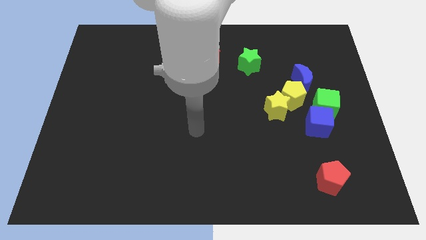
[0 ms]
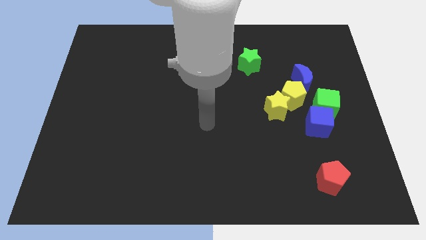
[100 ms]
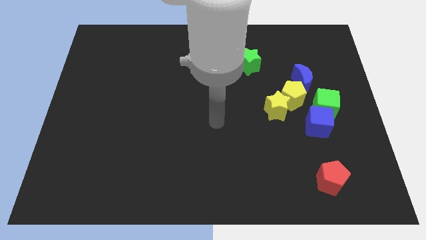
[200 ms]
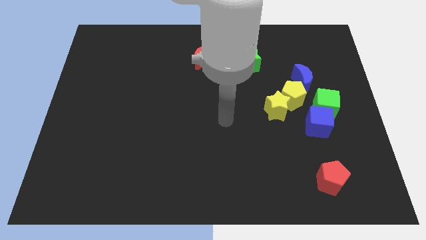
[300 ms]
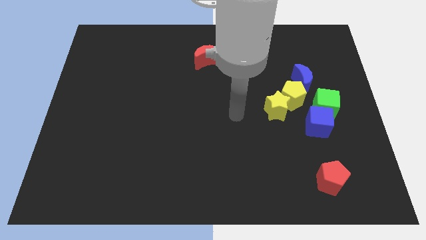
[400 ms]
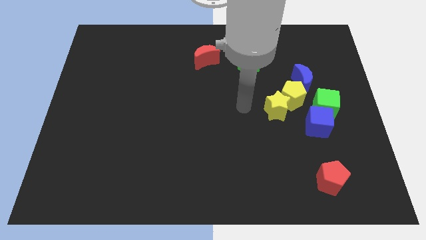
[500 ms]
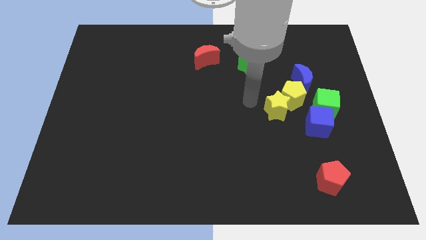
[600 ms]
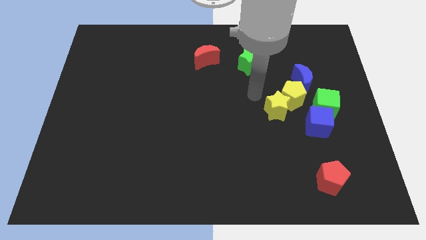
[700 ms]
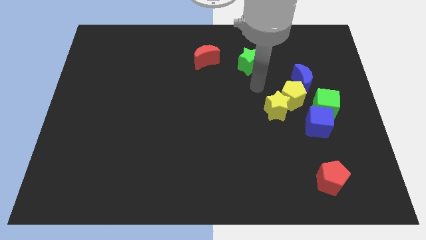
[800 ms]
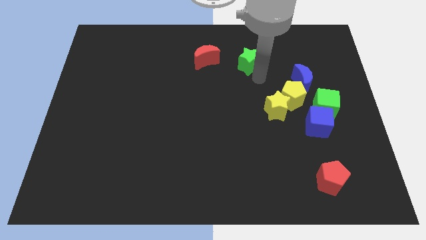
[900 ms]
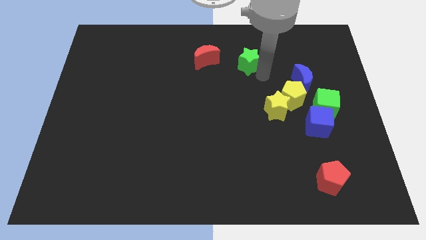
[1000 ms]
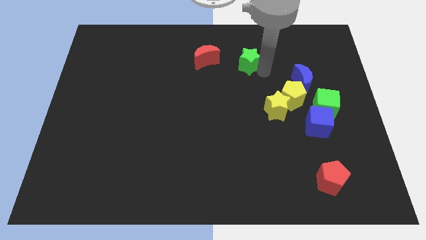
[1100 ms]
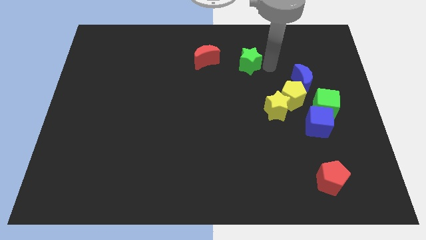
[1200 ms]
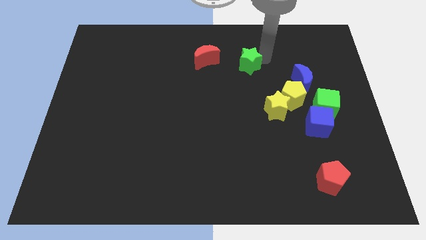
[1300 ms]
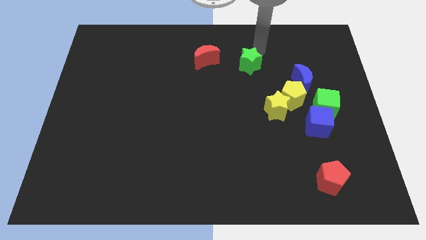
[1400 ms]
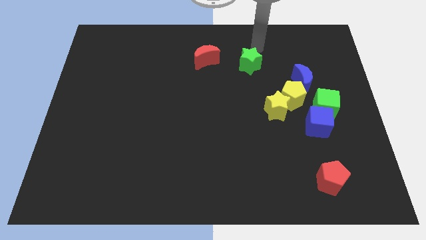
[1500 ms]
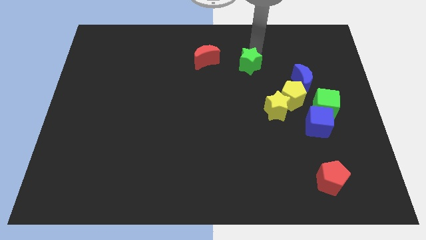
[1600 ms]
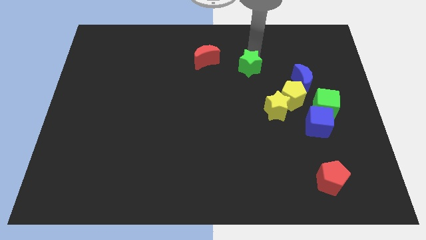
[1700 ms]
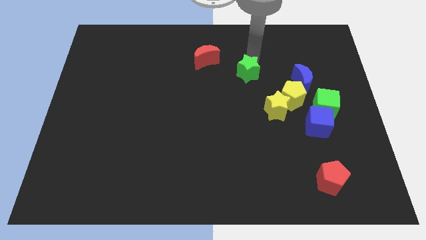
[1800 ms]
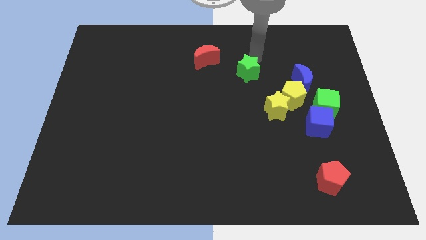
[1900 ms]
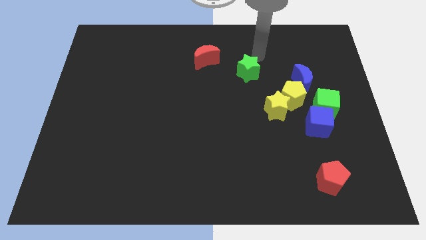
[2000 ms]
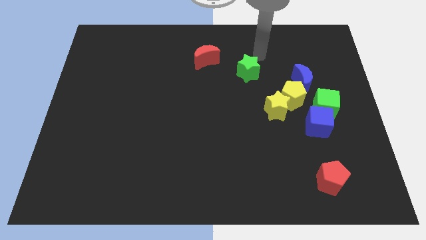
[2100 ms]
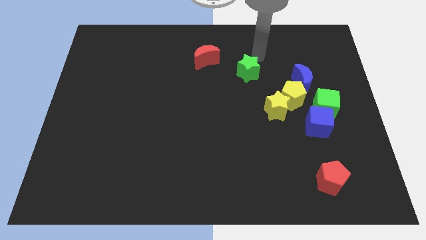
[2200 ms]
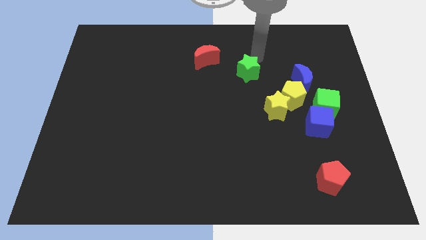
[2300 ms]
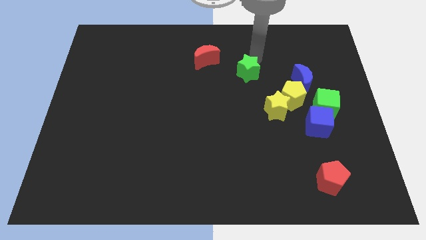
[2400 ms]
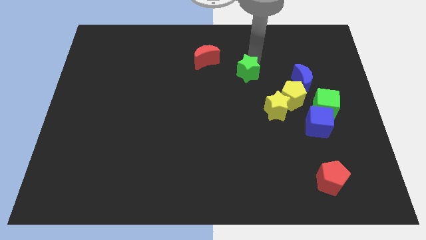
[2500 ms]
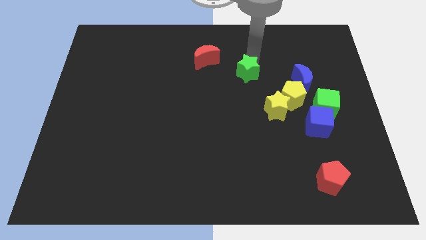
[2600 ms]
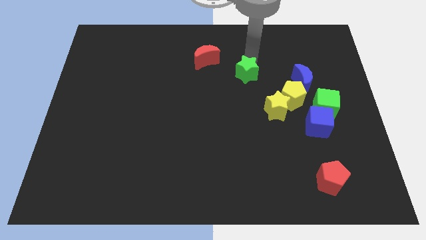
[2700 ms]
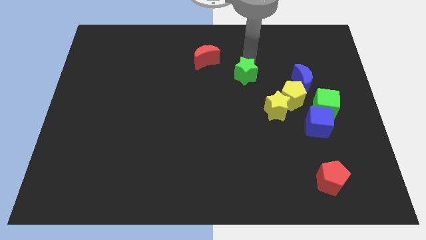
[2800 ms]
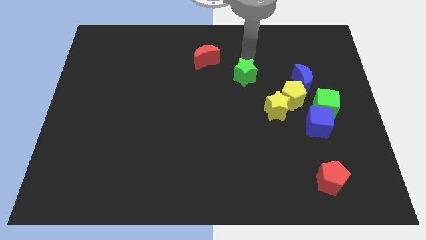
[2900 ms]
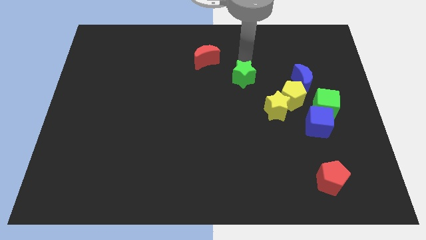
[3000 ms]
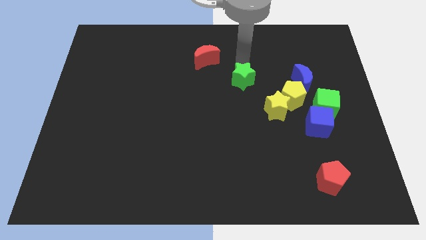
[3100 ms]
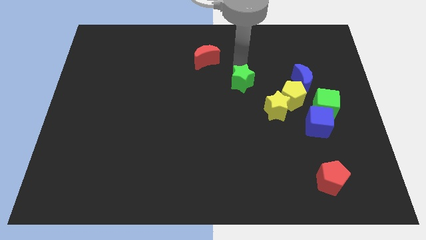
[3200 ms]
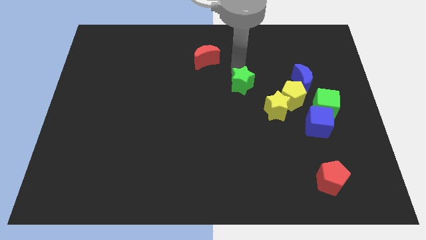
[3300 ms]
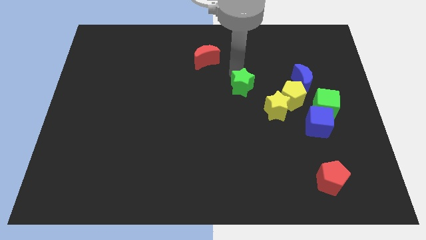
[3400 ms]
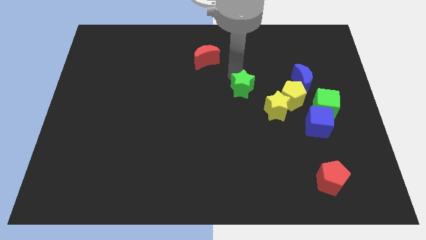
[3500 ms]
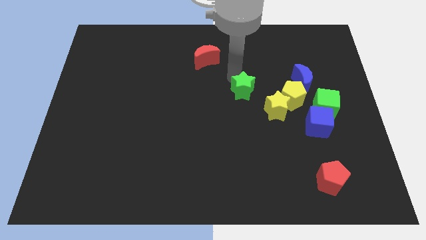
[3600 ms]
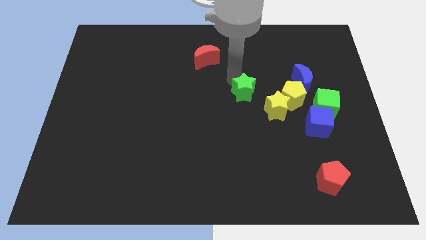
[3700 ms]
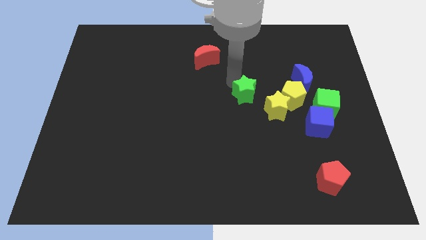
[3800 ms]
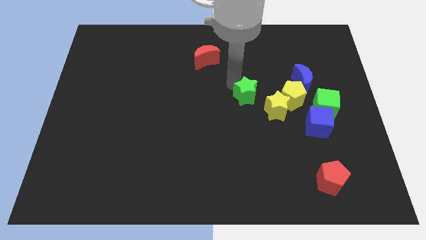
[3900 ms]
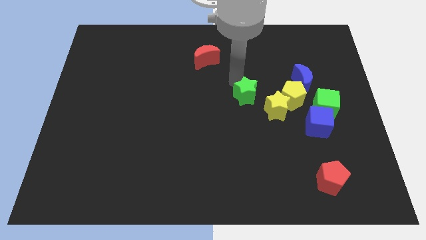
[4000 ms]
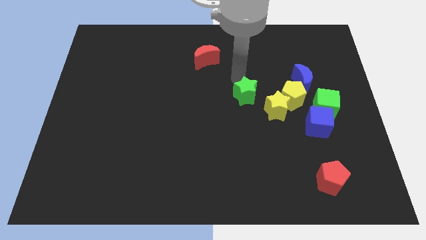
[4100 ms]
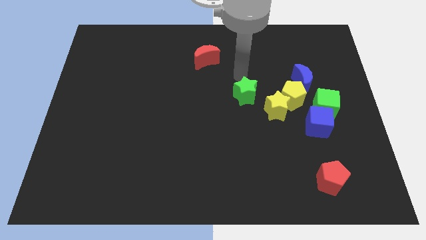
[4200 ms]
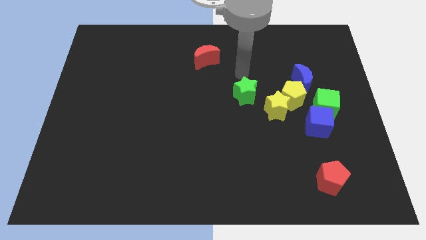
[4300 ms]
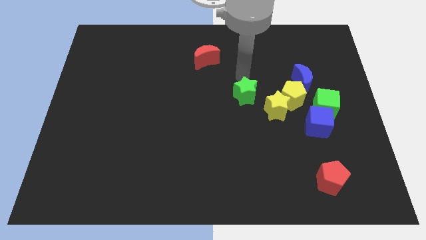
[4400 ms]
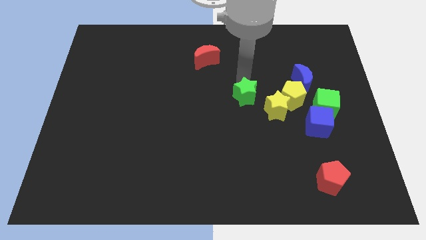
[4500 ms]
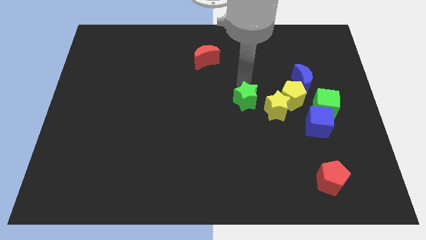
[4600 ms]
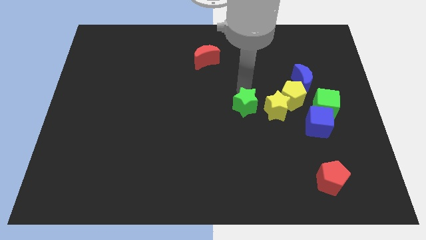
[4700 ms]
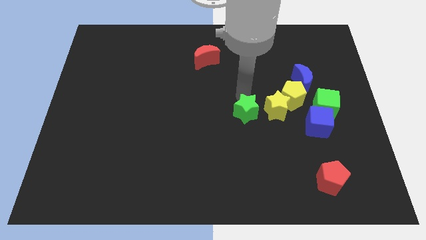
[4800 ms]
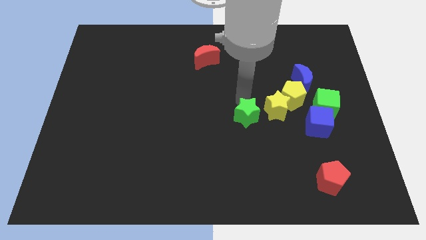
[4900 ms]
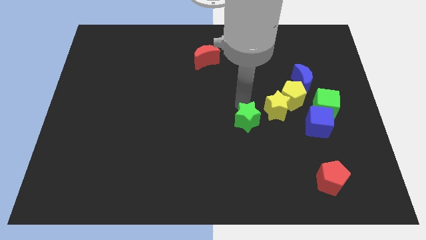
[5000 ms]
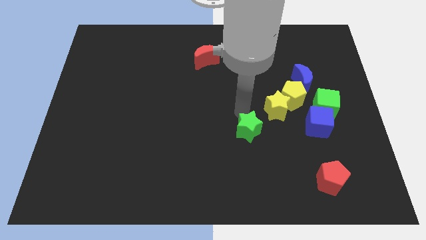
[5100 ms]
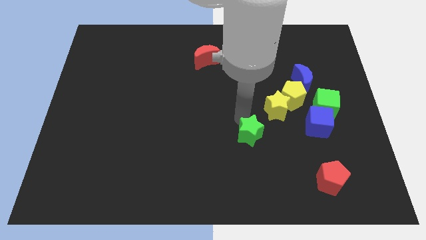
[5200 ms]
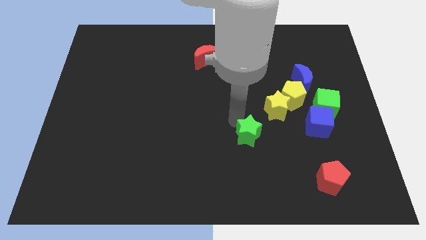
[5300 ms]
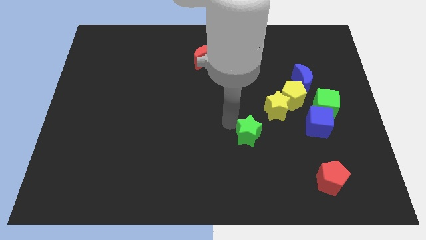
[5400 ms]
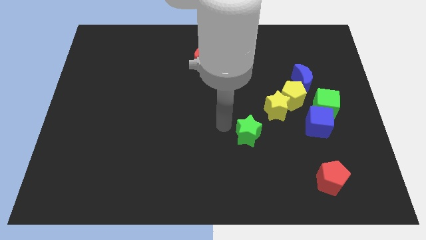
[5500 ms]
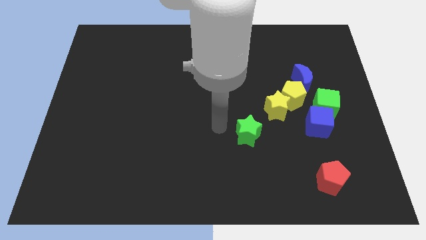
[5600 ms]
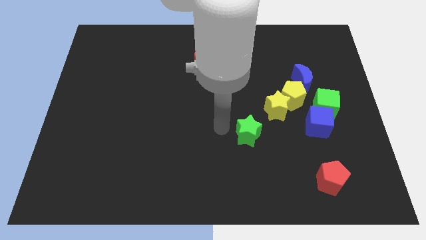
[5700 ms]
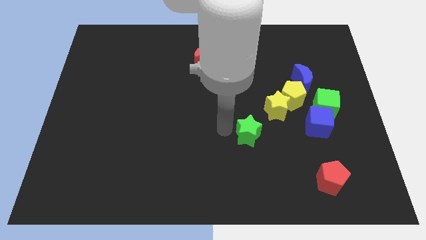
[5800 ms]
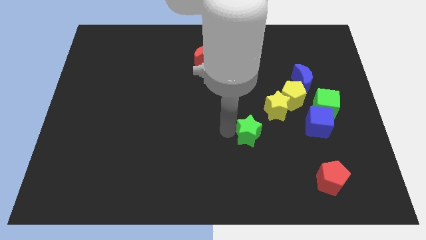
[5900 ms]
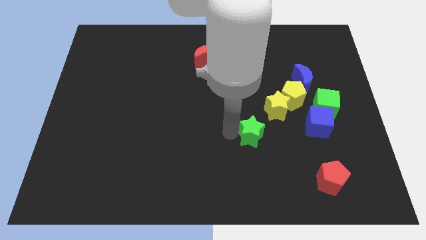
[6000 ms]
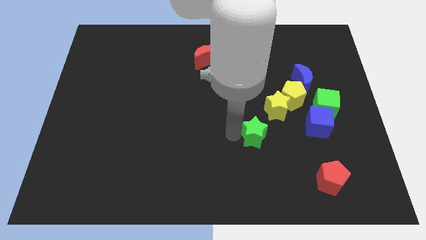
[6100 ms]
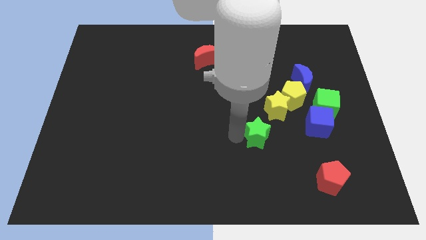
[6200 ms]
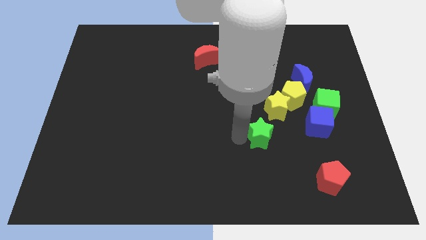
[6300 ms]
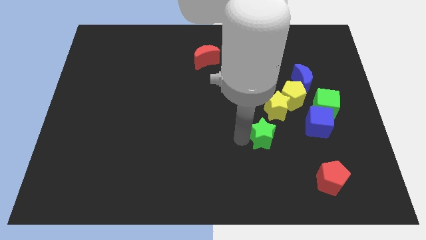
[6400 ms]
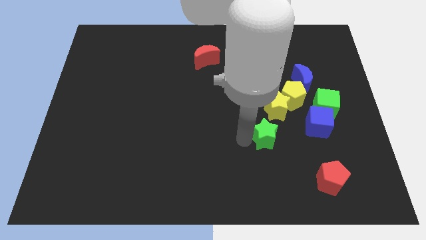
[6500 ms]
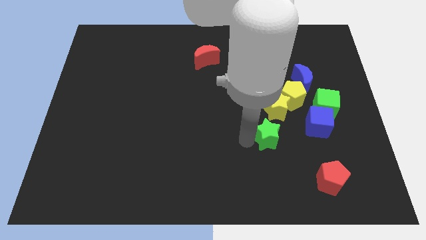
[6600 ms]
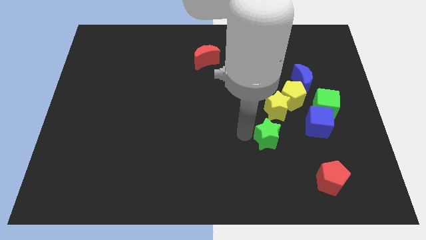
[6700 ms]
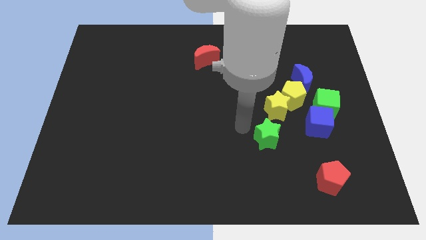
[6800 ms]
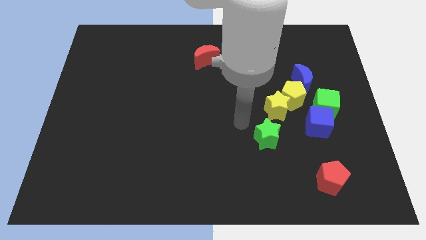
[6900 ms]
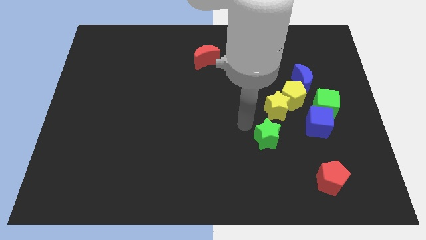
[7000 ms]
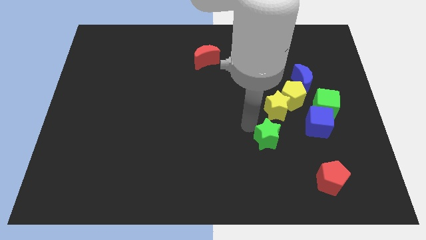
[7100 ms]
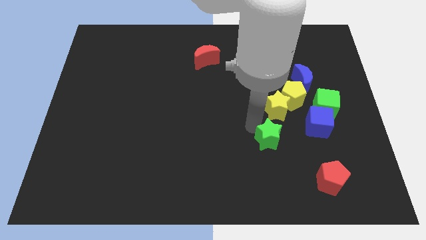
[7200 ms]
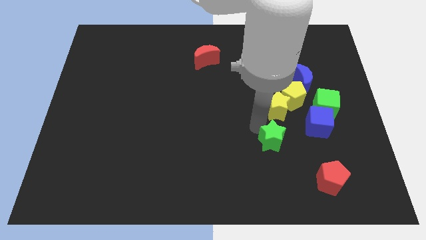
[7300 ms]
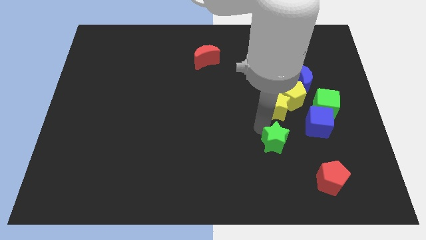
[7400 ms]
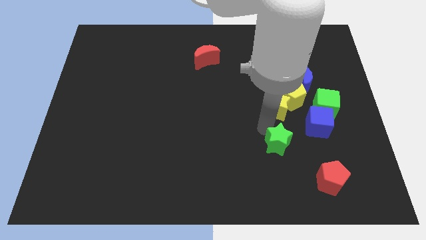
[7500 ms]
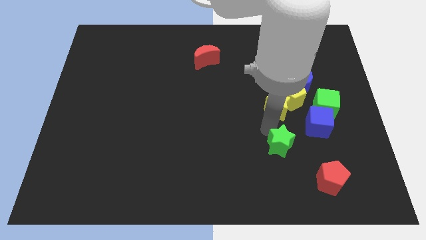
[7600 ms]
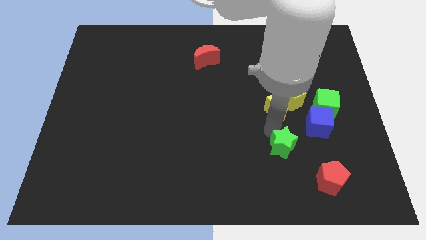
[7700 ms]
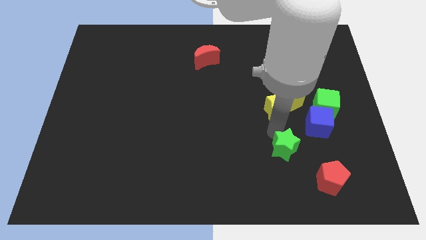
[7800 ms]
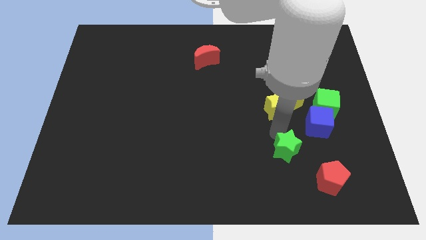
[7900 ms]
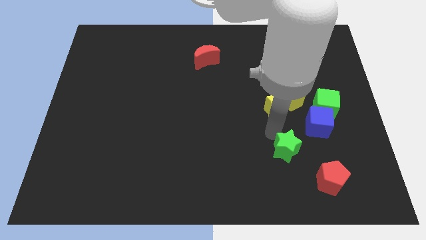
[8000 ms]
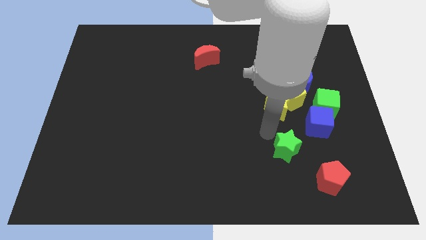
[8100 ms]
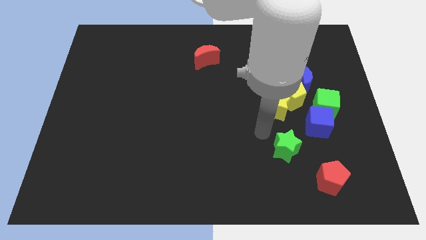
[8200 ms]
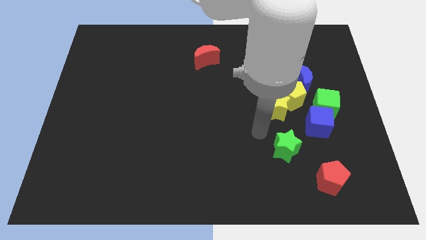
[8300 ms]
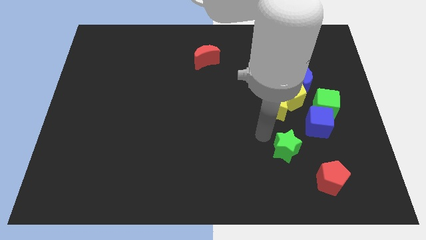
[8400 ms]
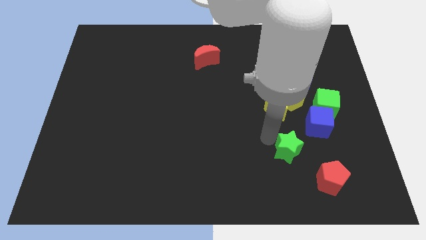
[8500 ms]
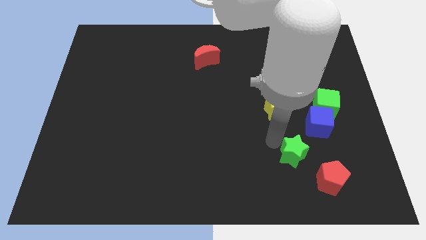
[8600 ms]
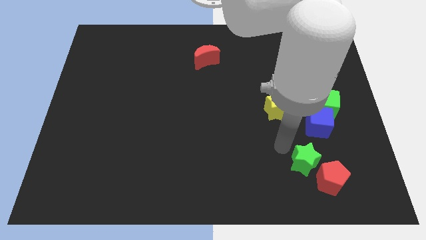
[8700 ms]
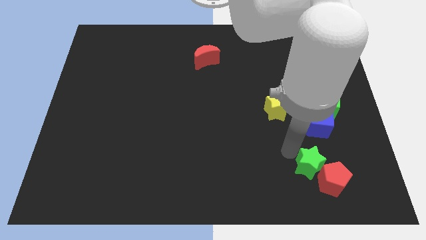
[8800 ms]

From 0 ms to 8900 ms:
push the green star to the red pentagon
